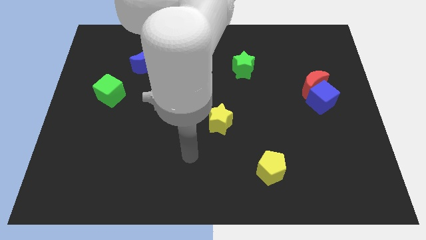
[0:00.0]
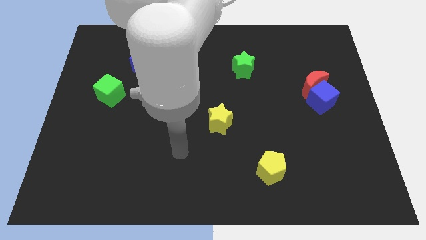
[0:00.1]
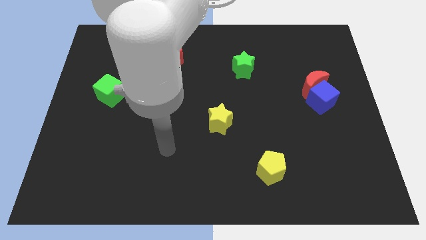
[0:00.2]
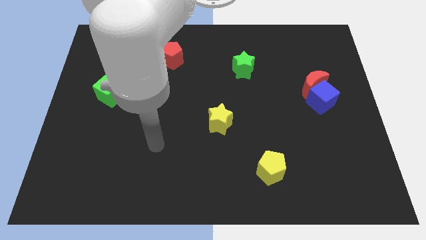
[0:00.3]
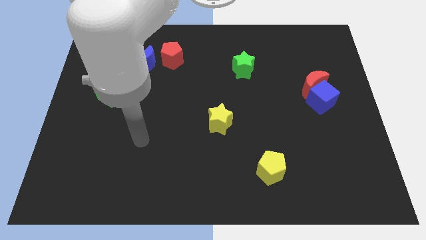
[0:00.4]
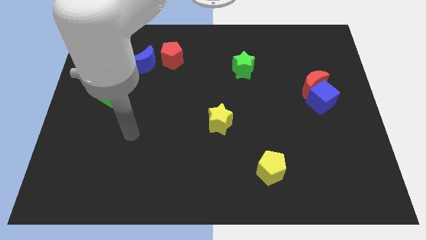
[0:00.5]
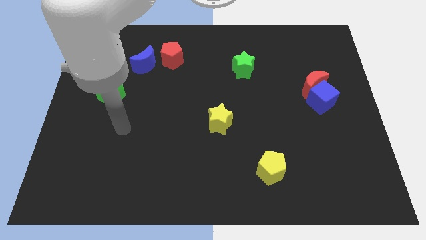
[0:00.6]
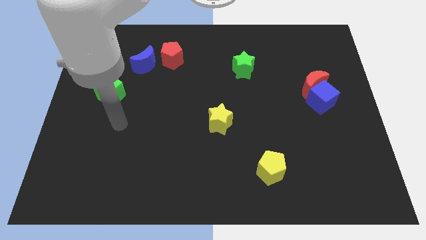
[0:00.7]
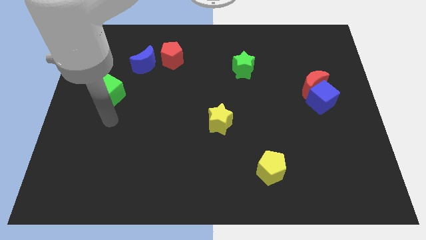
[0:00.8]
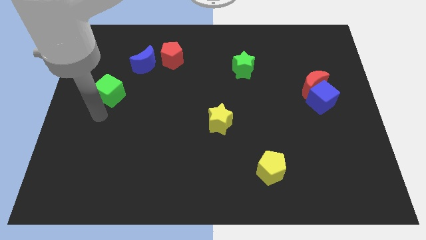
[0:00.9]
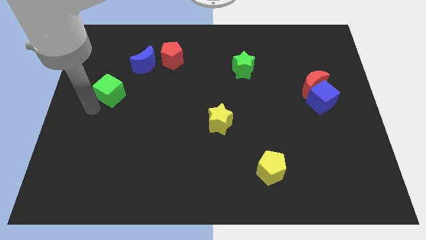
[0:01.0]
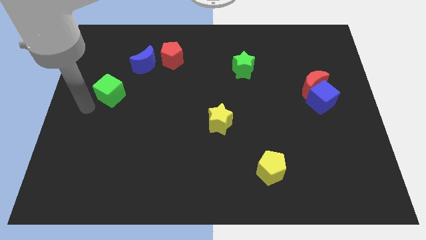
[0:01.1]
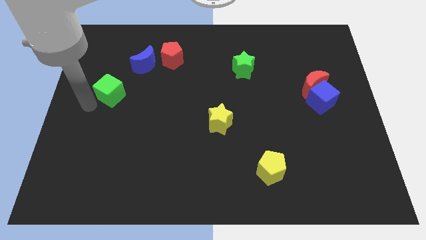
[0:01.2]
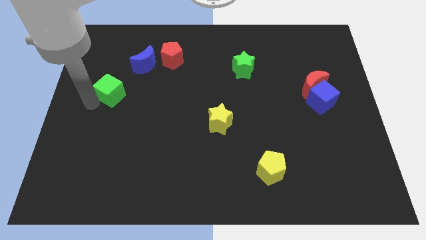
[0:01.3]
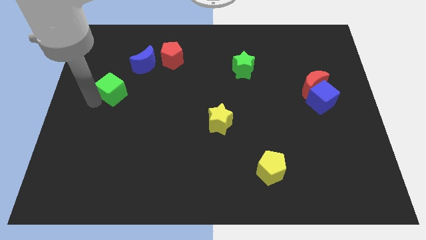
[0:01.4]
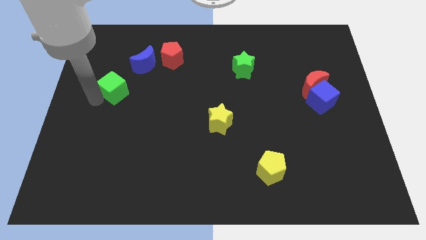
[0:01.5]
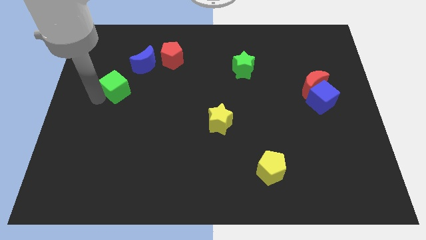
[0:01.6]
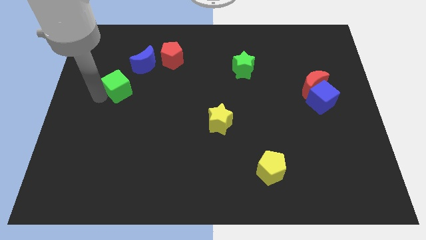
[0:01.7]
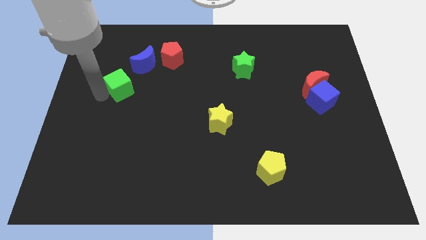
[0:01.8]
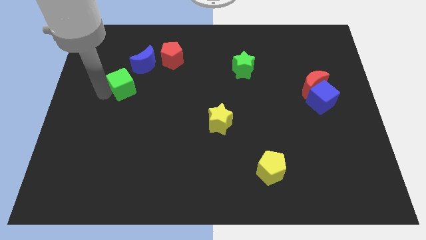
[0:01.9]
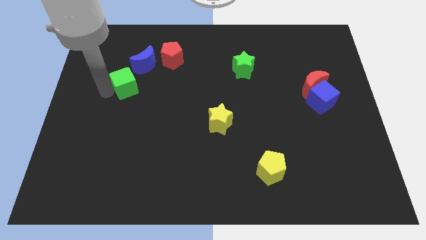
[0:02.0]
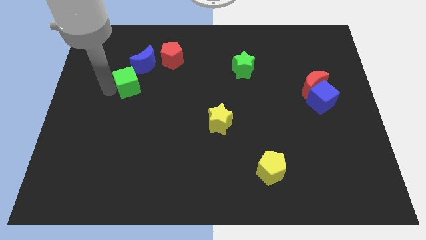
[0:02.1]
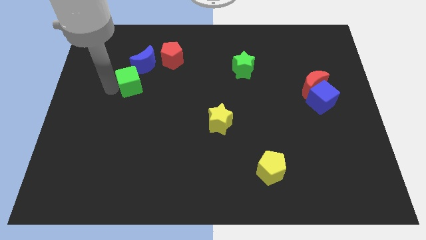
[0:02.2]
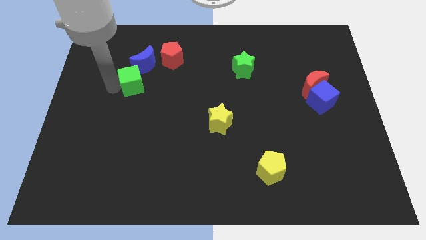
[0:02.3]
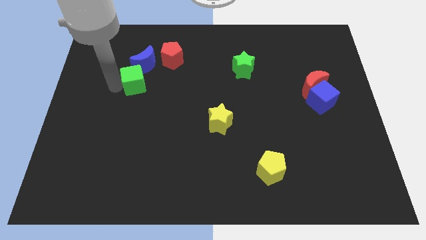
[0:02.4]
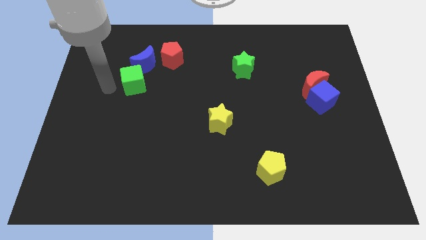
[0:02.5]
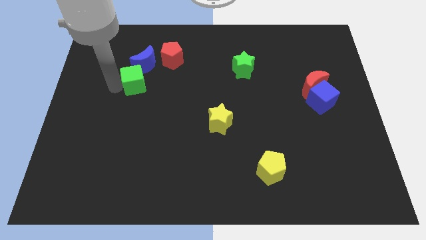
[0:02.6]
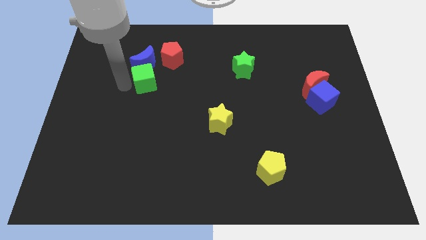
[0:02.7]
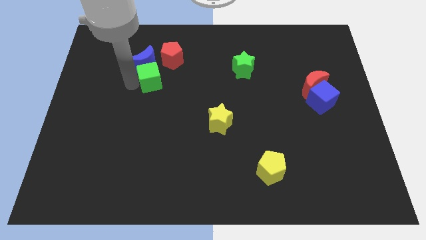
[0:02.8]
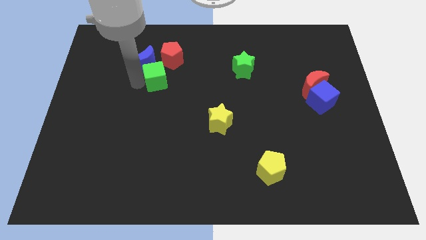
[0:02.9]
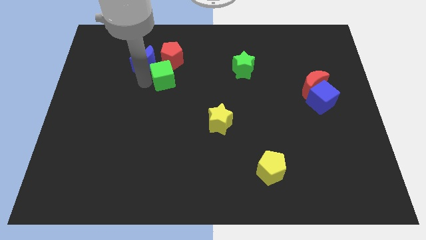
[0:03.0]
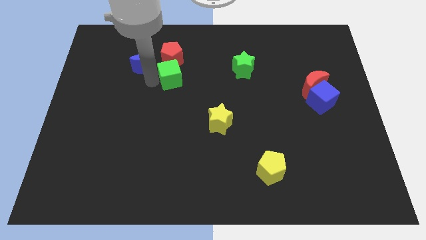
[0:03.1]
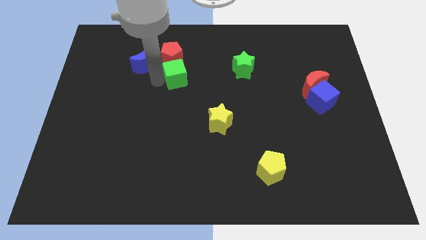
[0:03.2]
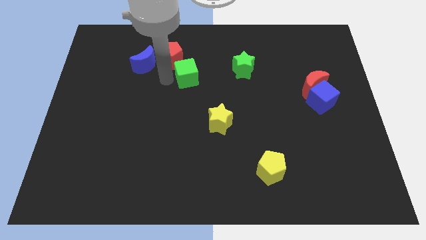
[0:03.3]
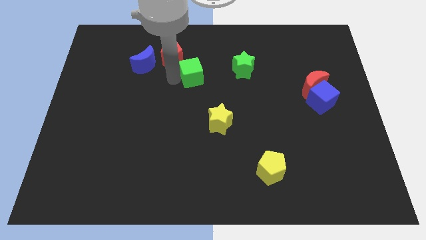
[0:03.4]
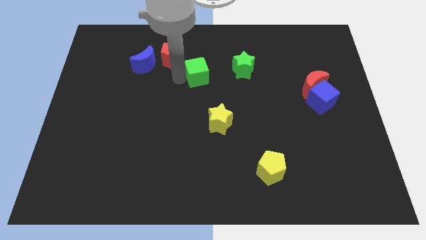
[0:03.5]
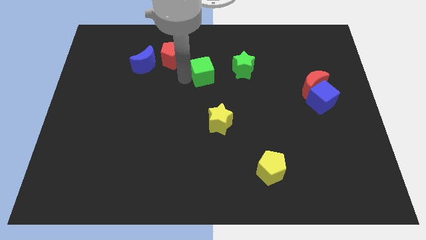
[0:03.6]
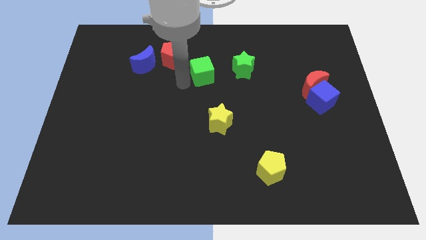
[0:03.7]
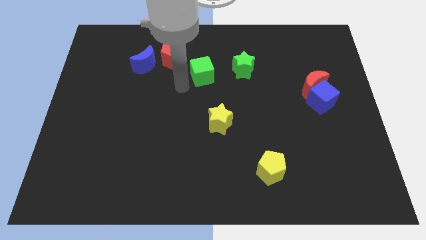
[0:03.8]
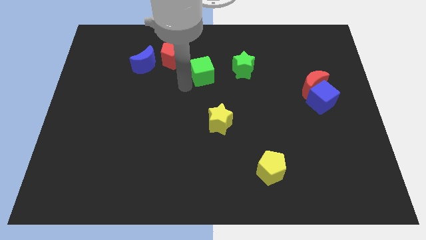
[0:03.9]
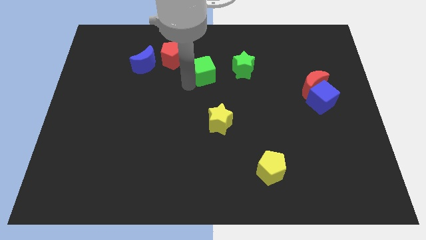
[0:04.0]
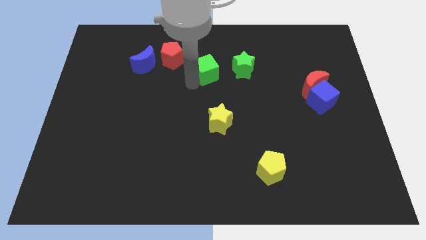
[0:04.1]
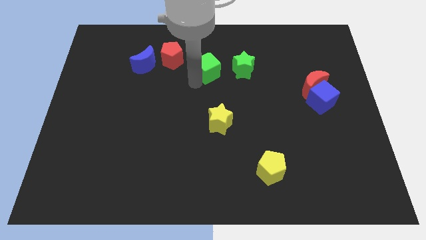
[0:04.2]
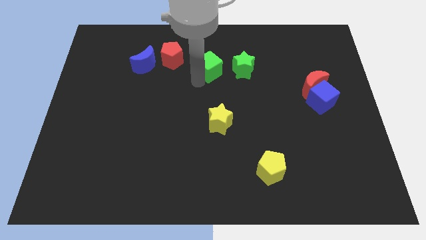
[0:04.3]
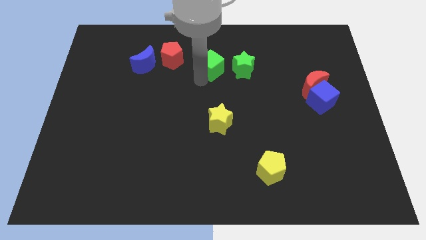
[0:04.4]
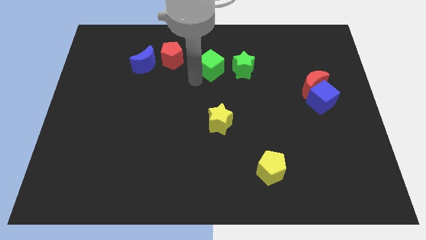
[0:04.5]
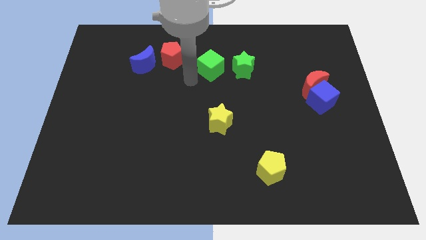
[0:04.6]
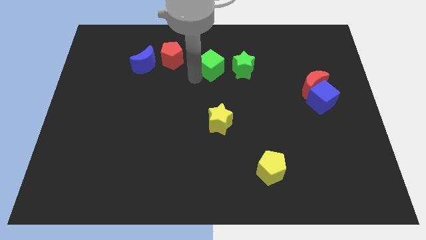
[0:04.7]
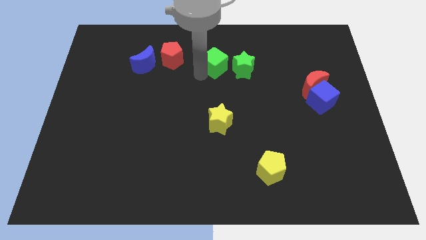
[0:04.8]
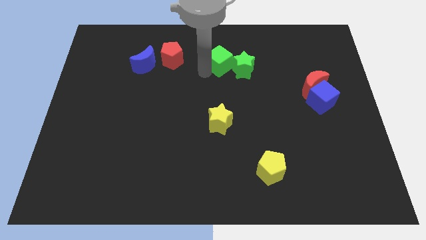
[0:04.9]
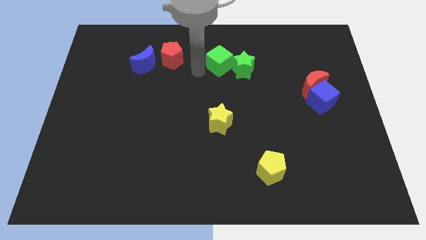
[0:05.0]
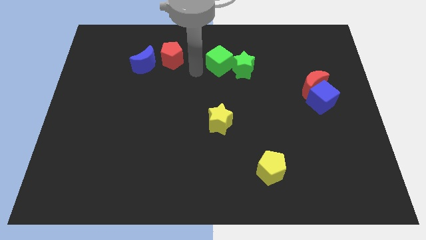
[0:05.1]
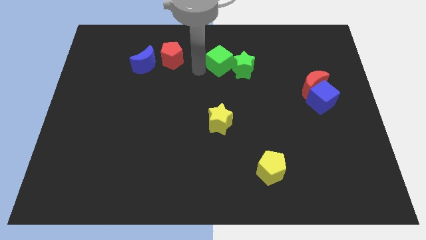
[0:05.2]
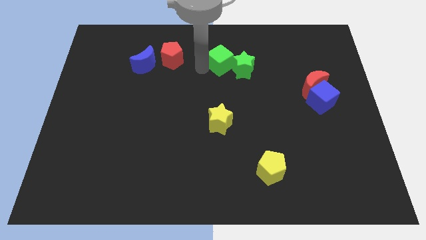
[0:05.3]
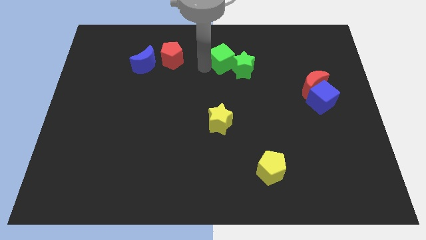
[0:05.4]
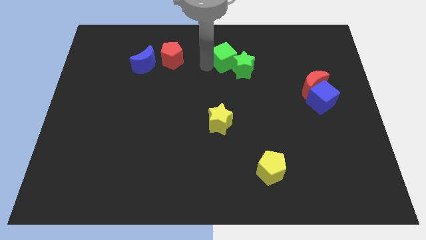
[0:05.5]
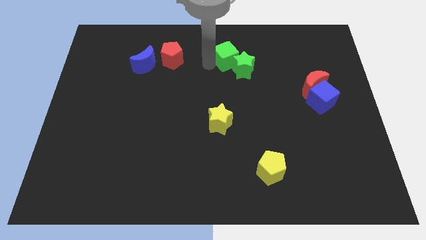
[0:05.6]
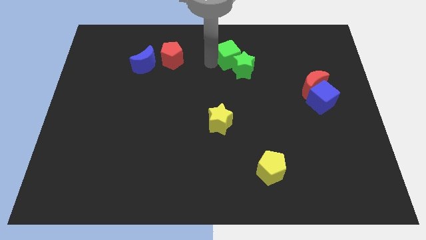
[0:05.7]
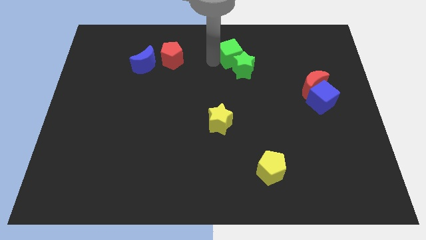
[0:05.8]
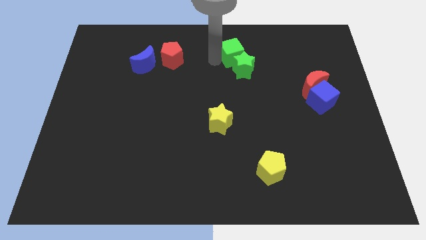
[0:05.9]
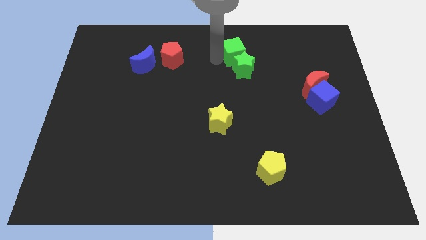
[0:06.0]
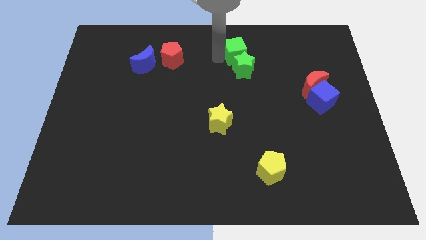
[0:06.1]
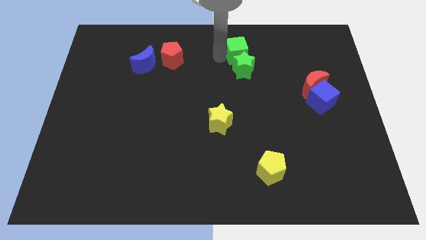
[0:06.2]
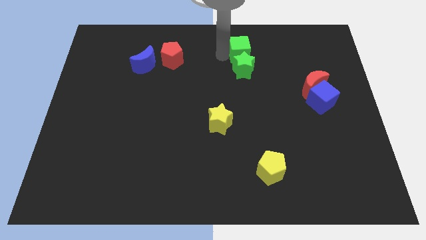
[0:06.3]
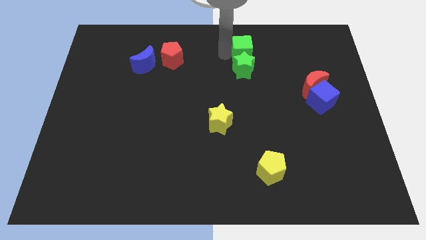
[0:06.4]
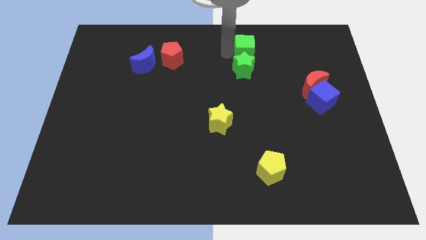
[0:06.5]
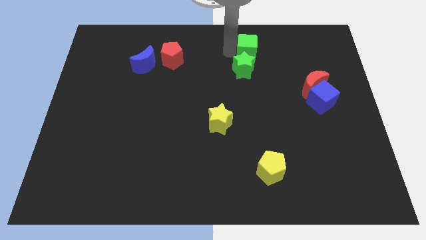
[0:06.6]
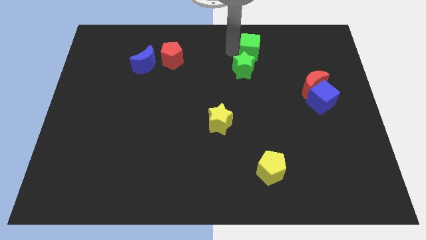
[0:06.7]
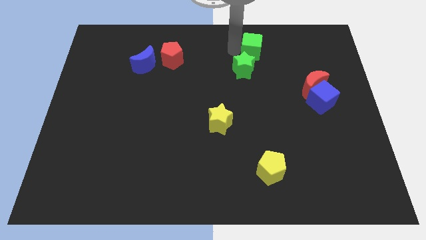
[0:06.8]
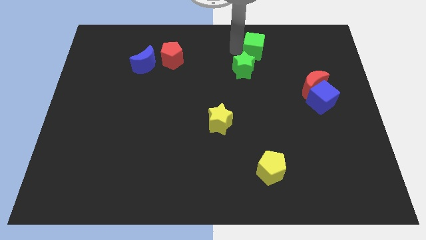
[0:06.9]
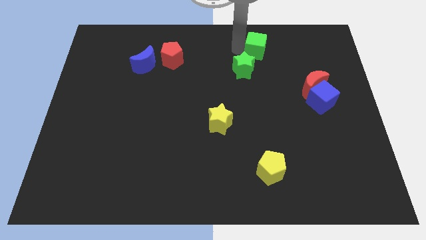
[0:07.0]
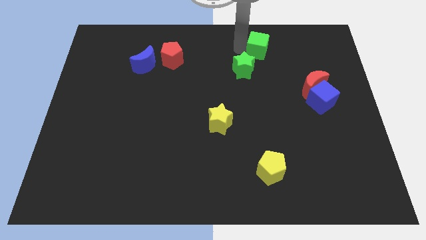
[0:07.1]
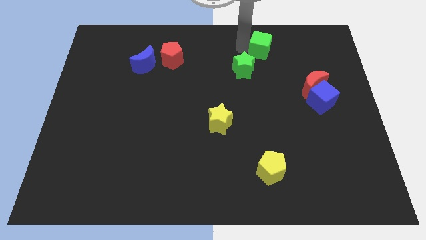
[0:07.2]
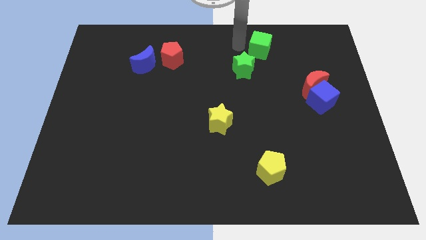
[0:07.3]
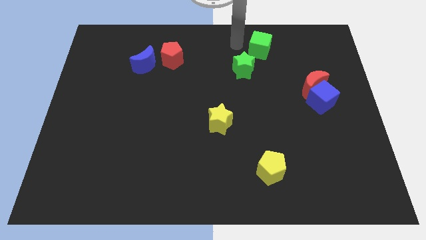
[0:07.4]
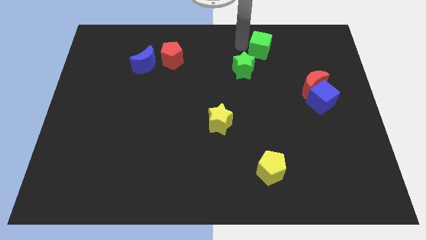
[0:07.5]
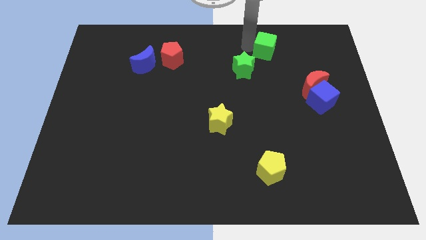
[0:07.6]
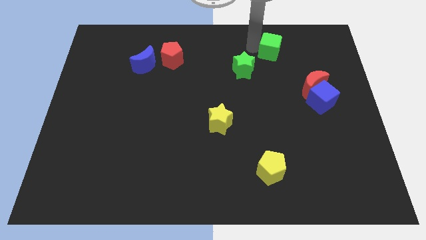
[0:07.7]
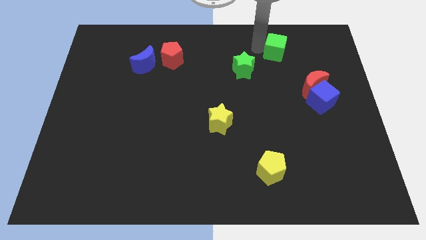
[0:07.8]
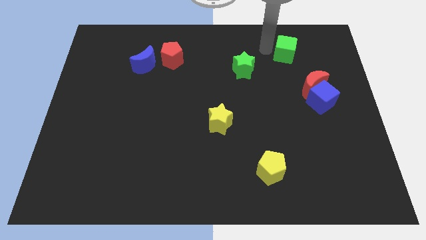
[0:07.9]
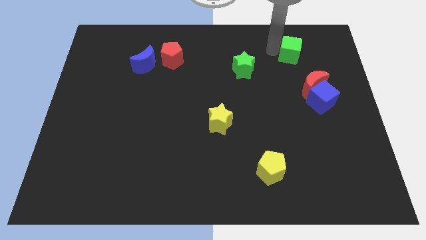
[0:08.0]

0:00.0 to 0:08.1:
put the green cube to the top side of the red moon
